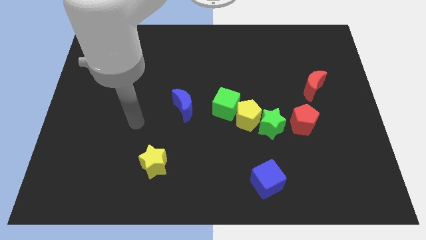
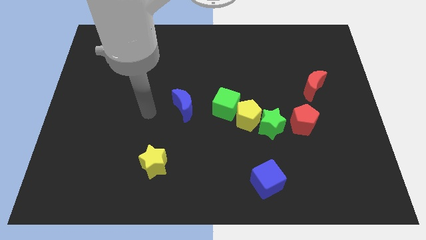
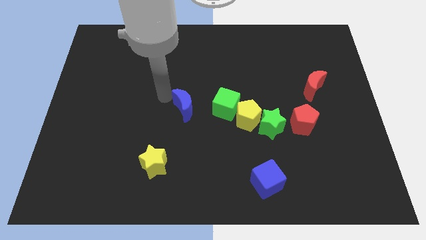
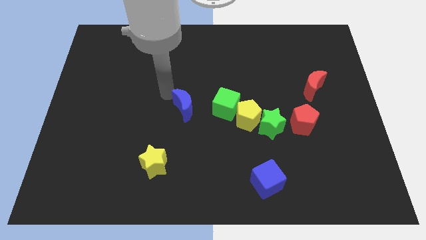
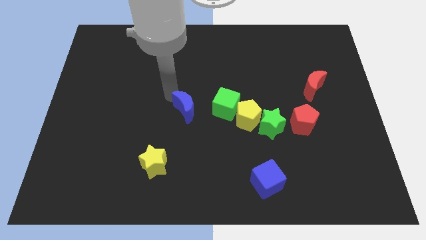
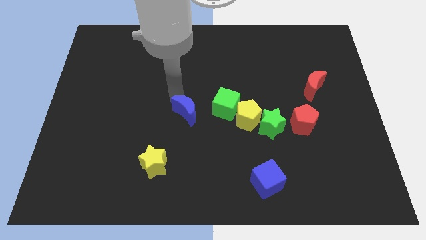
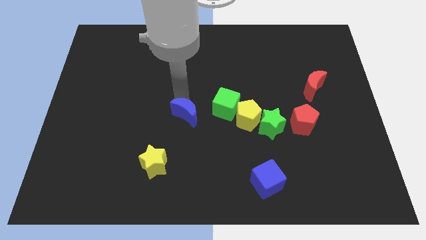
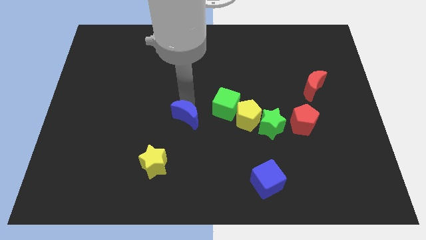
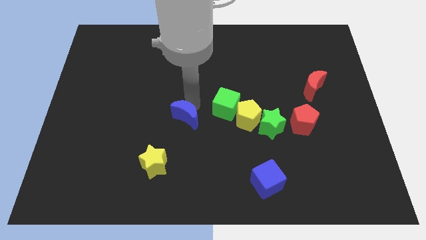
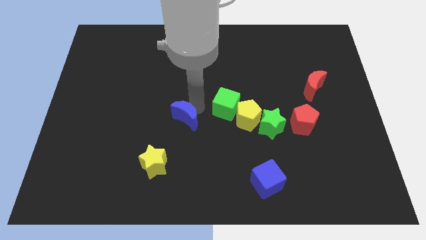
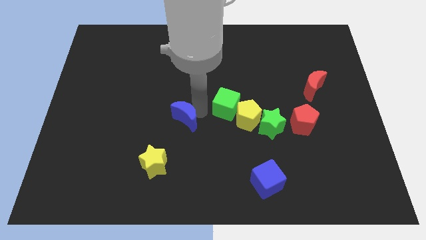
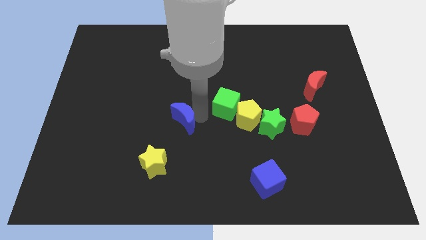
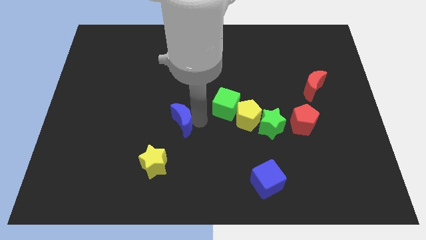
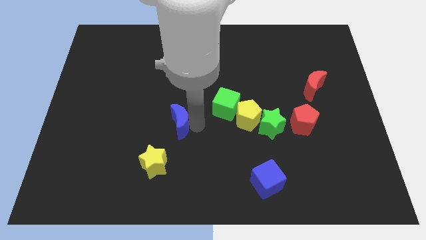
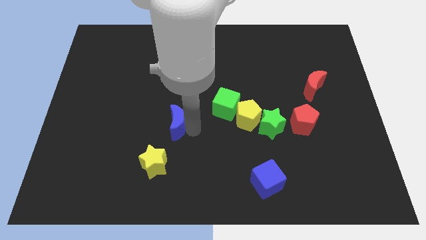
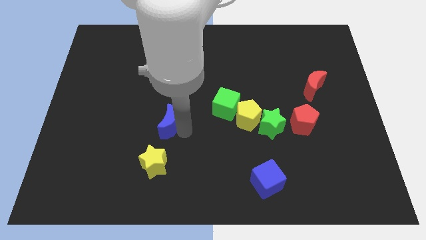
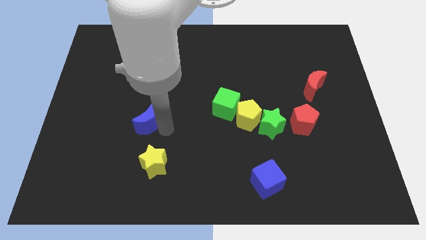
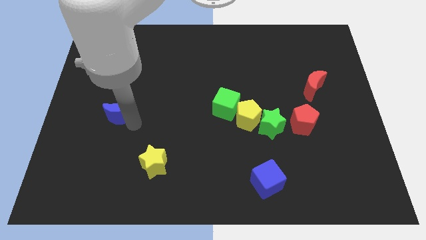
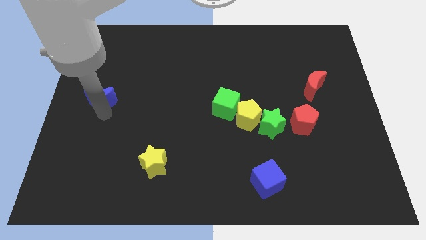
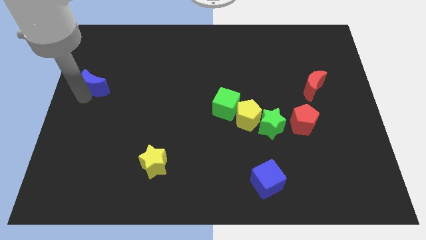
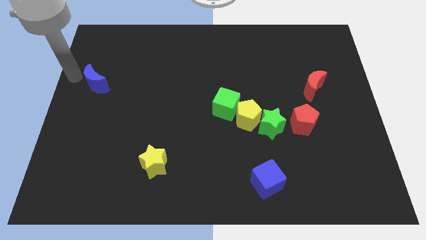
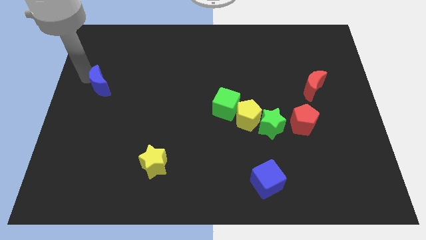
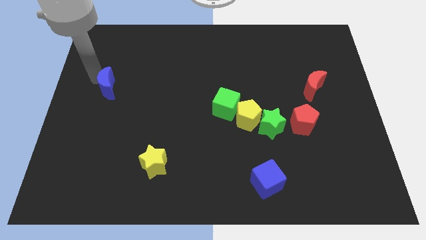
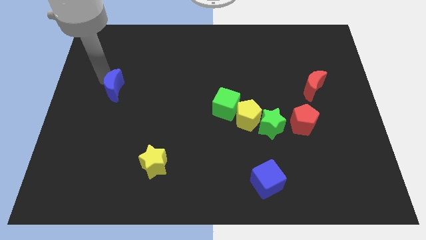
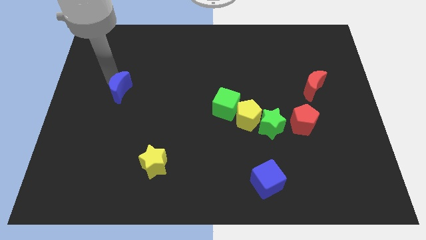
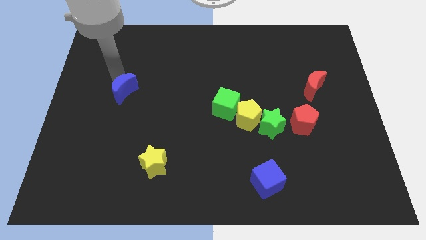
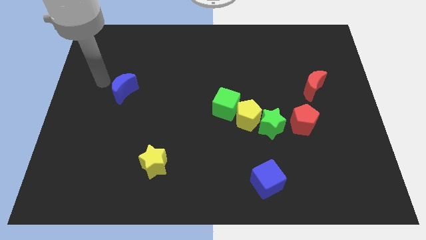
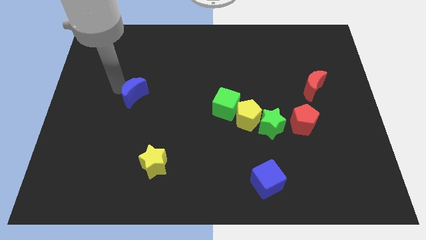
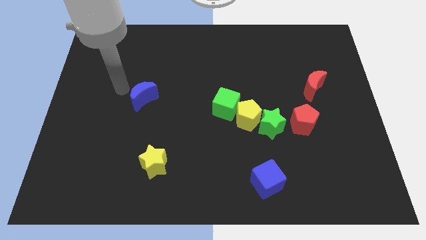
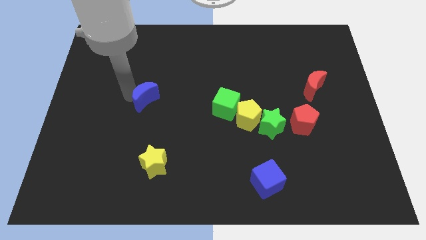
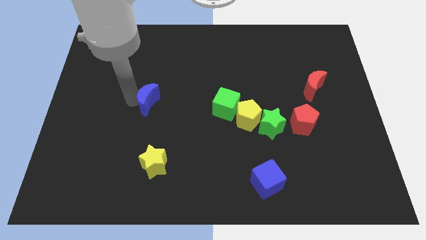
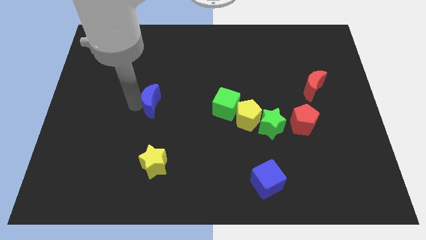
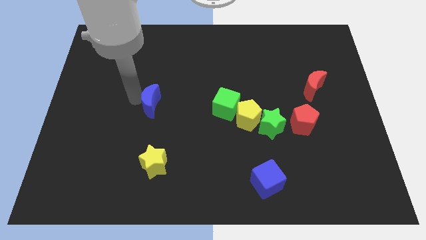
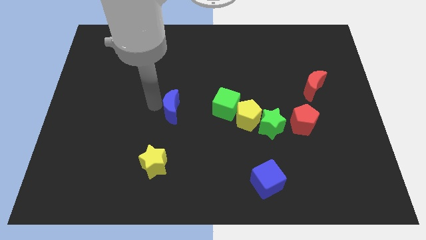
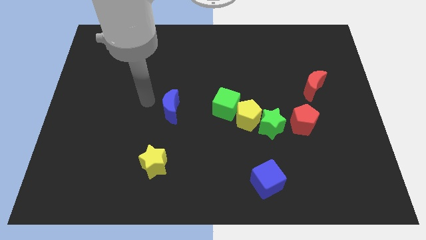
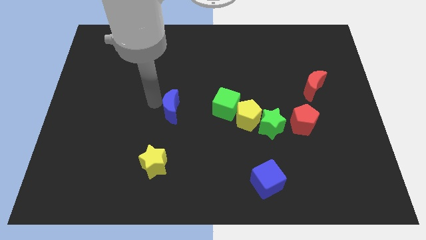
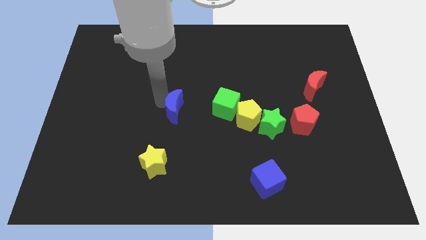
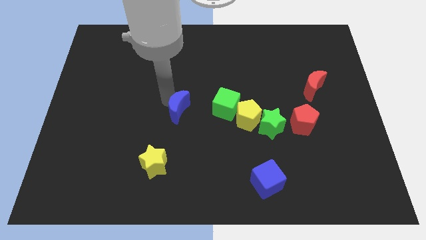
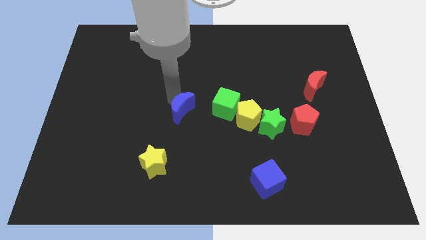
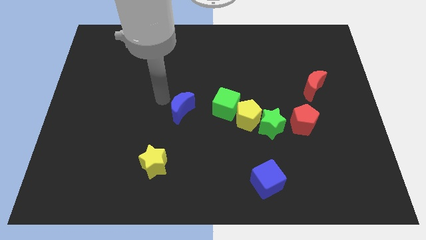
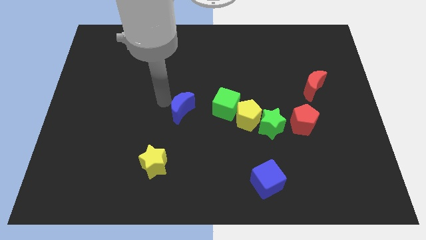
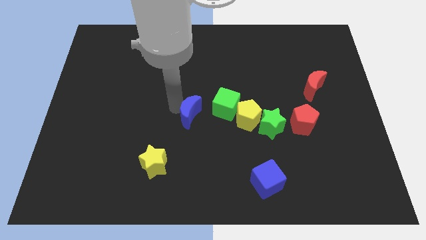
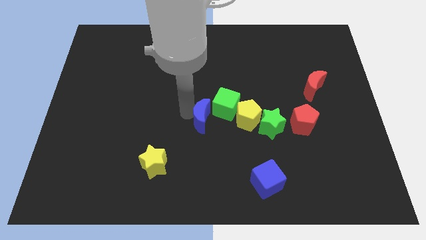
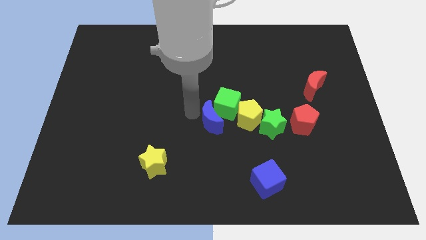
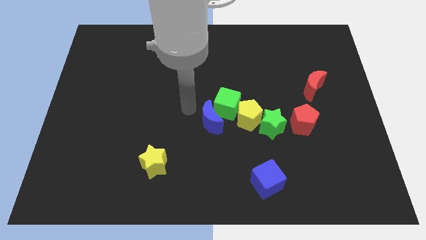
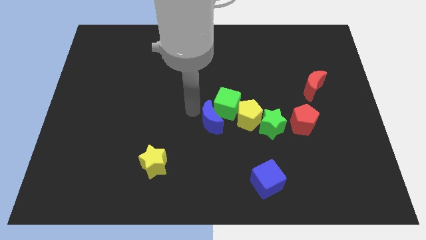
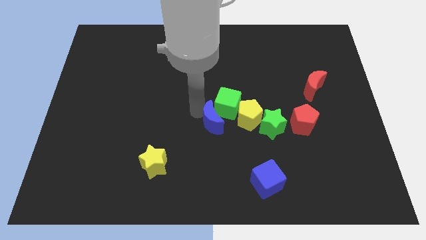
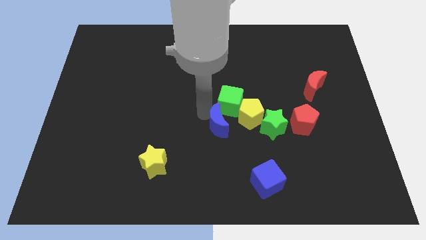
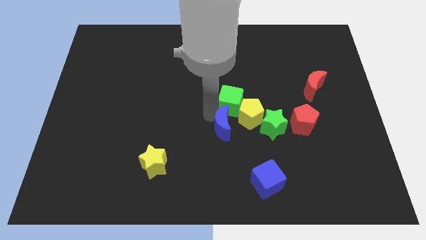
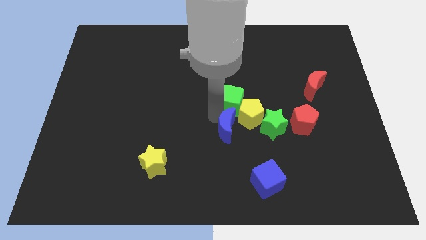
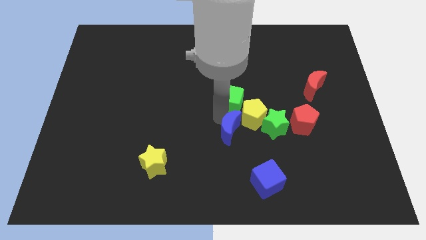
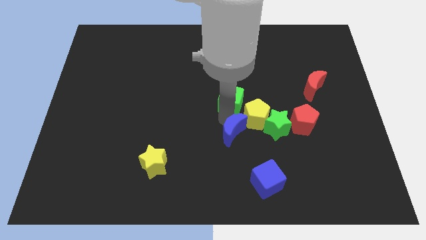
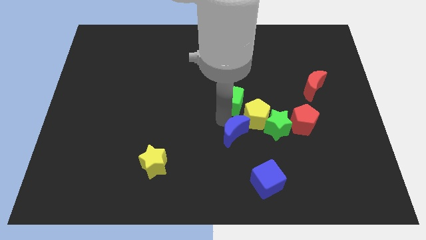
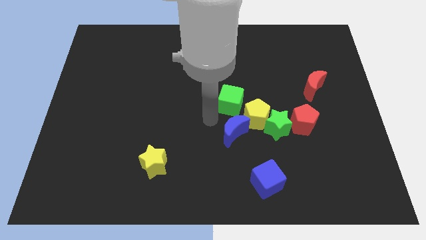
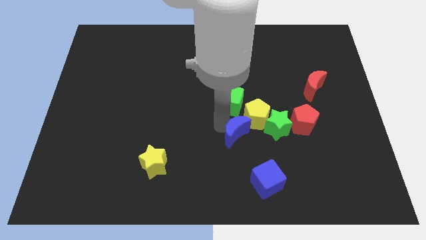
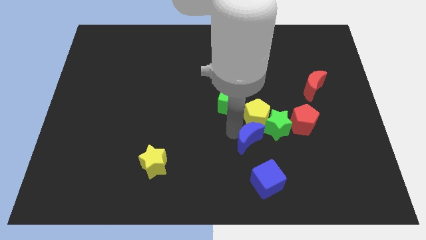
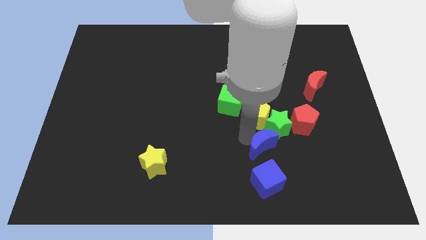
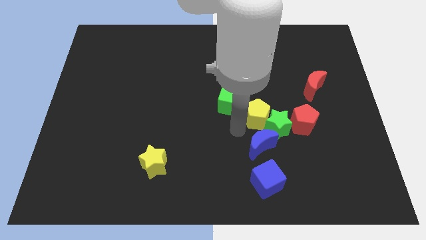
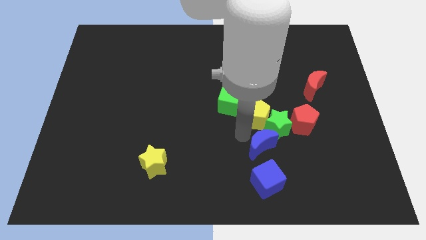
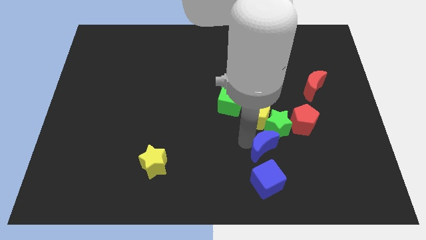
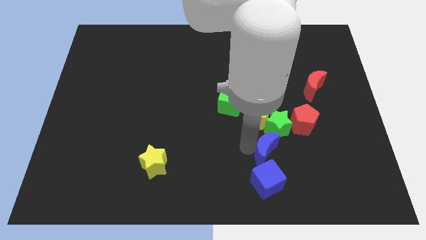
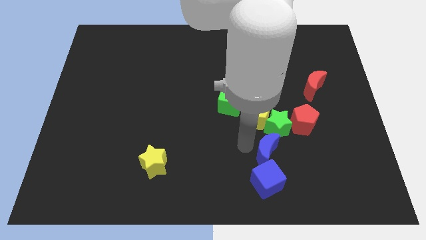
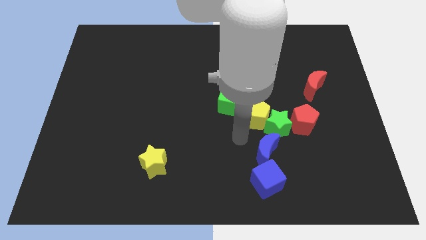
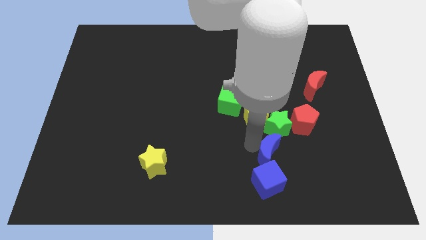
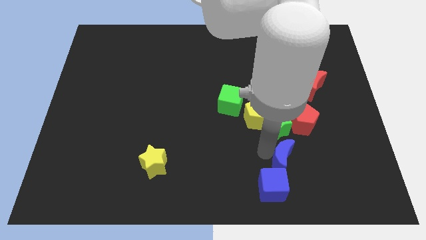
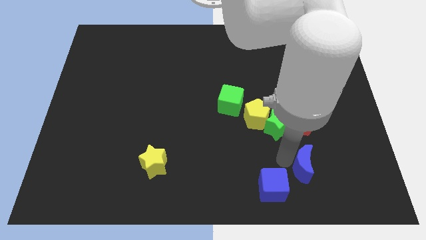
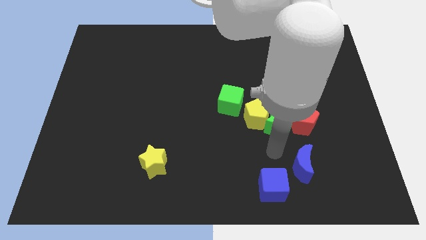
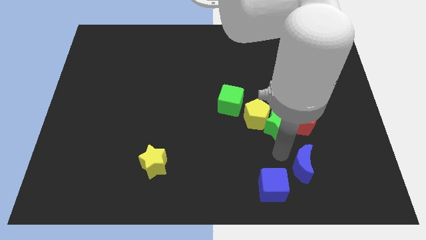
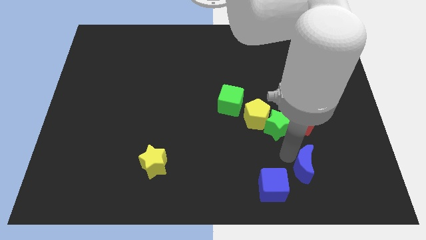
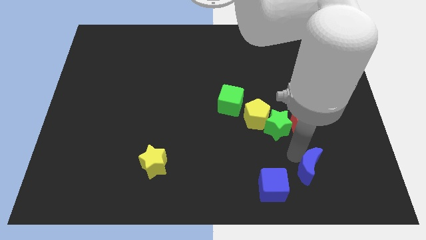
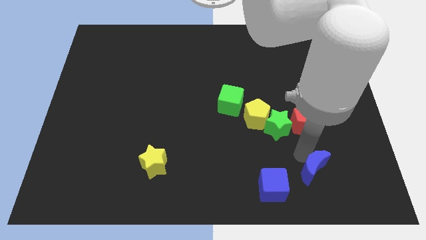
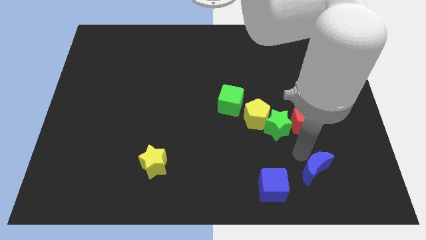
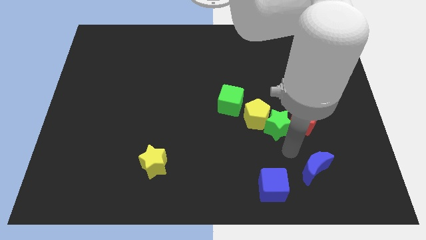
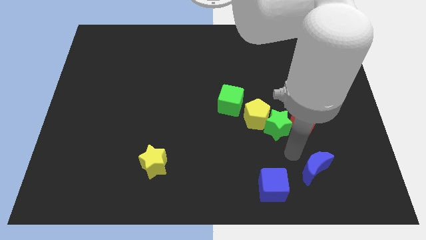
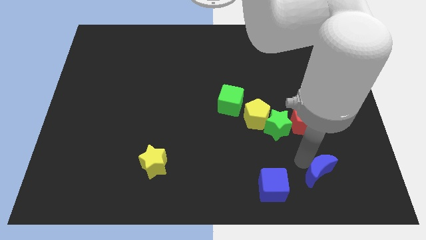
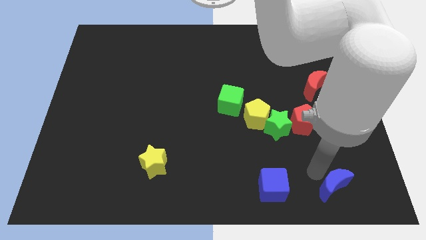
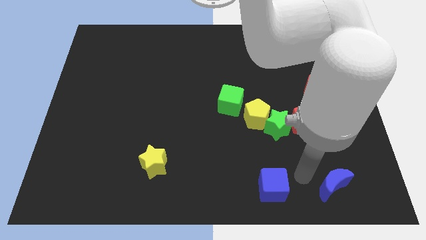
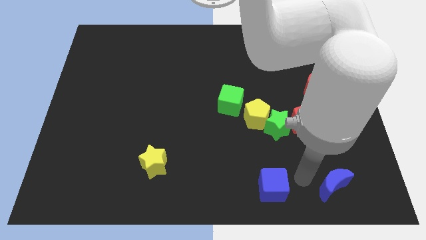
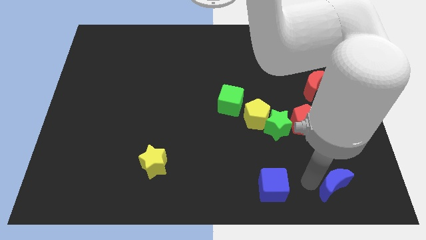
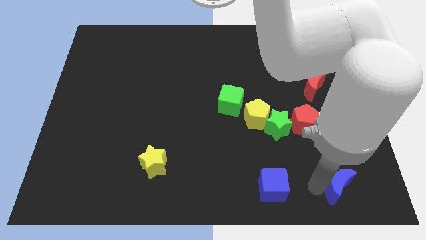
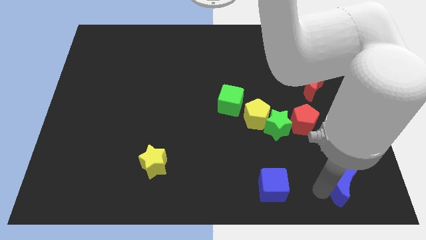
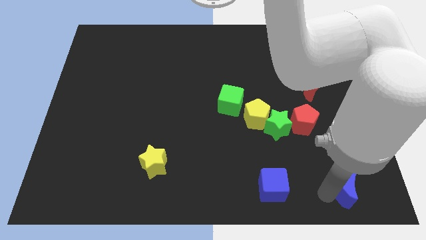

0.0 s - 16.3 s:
put the blue moon to the bottom right corner
